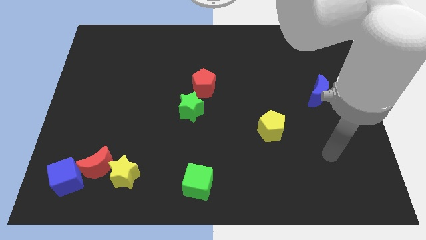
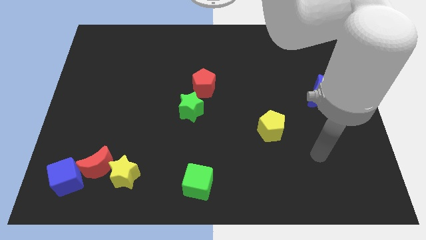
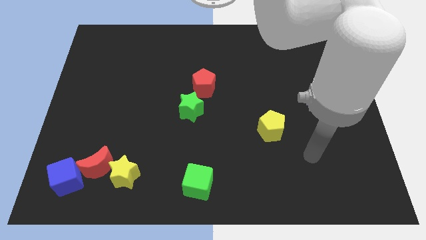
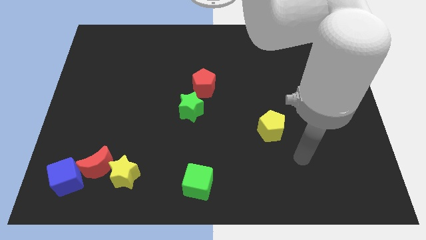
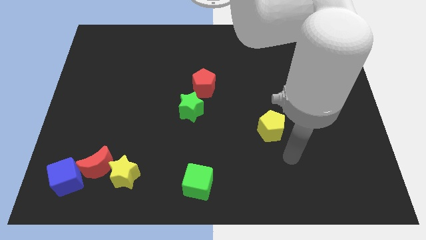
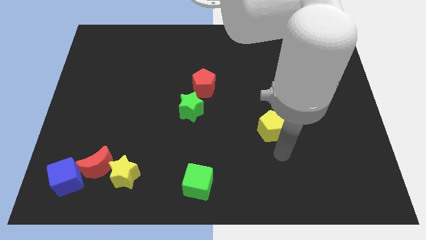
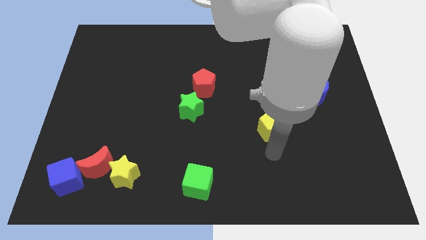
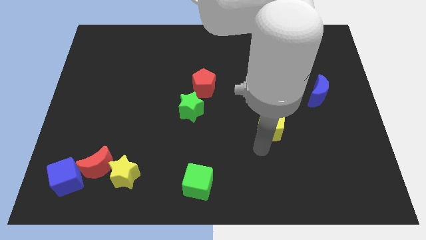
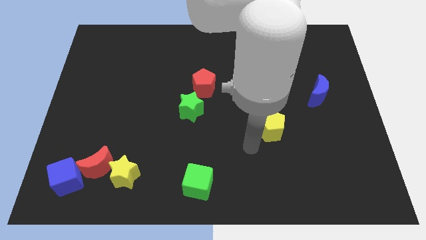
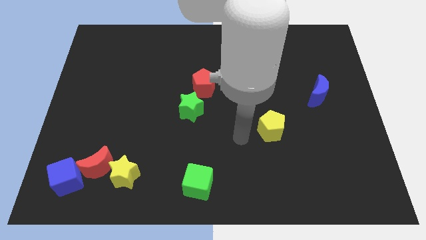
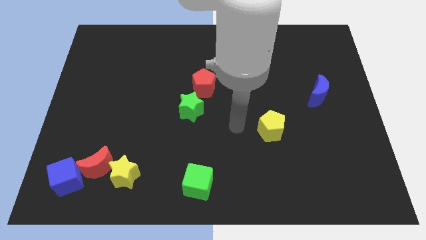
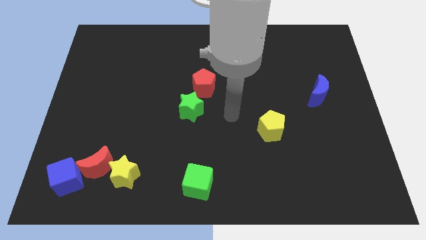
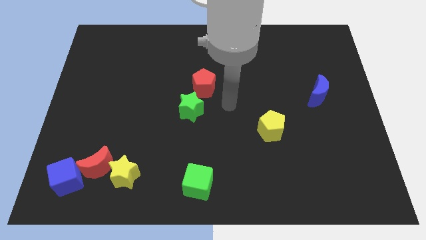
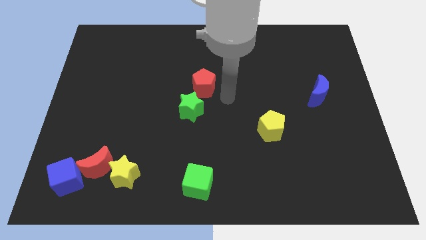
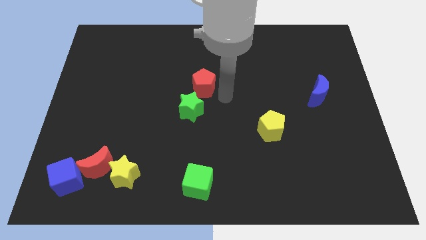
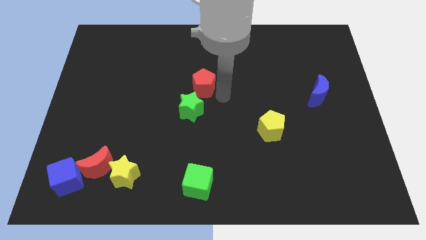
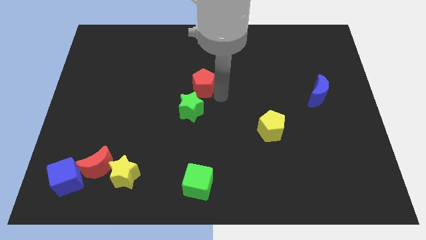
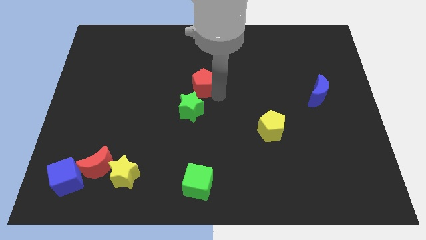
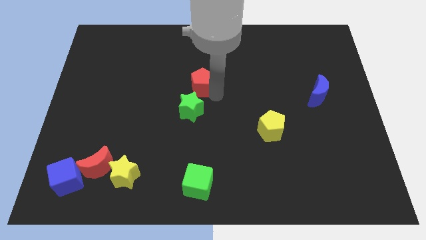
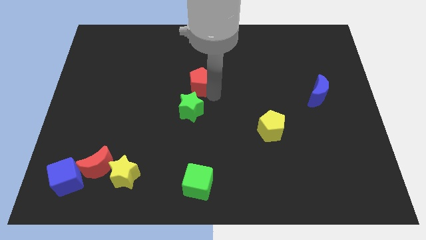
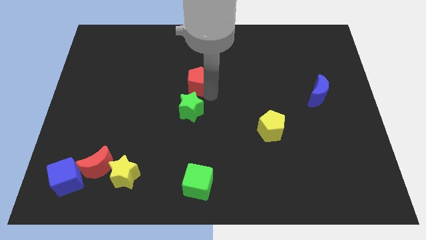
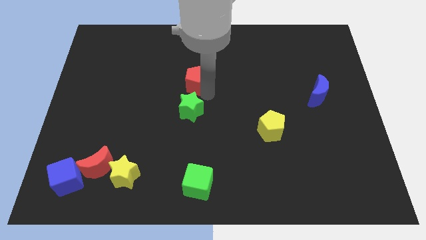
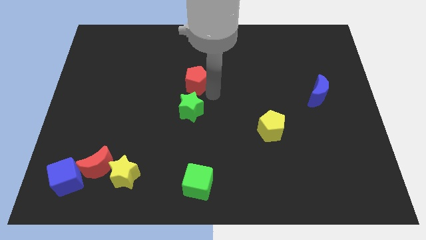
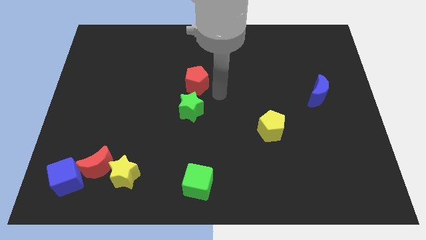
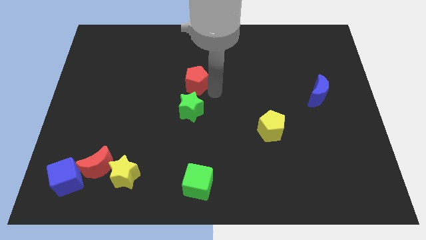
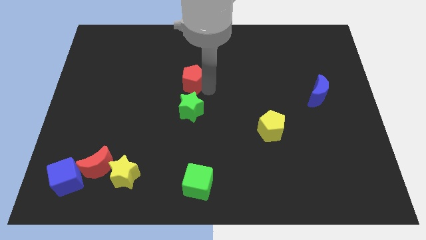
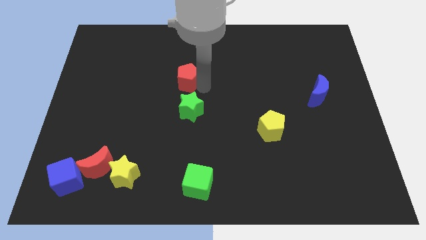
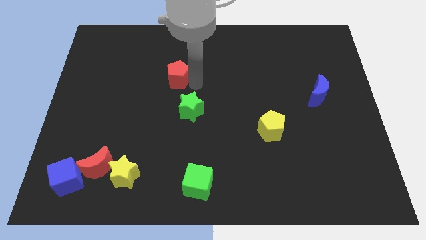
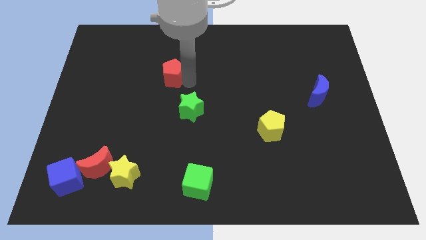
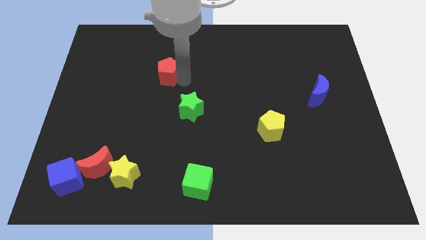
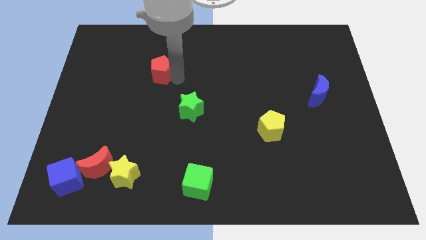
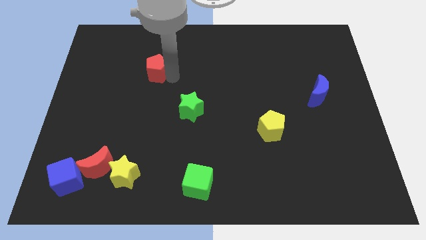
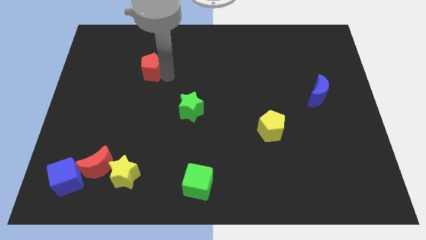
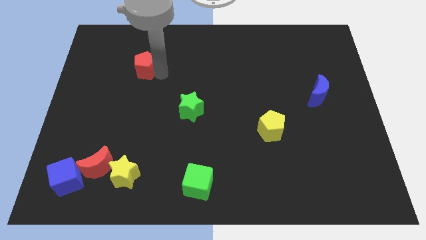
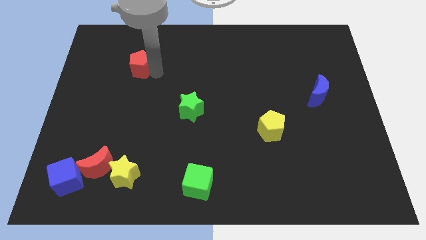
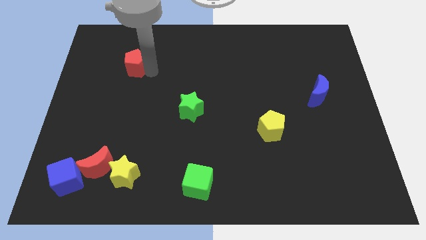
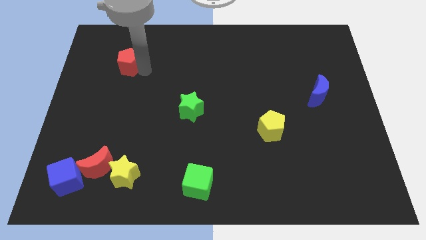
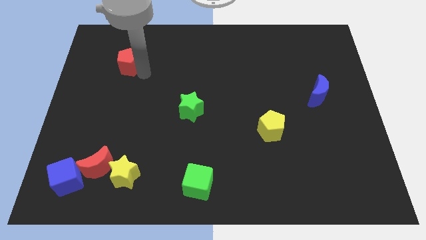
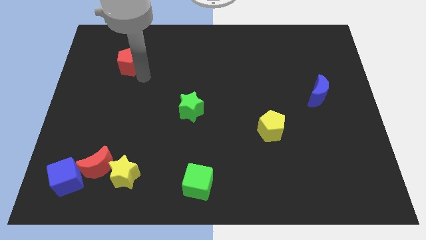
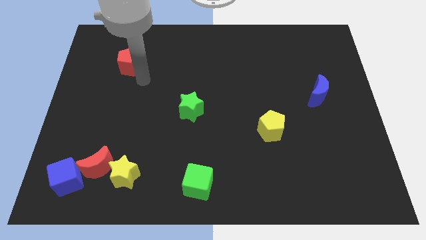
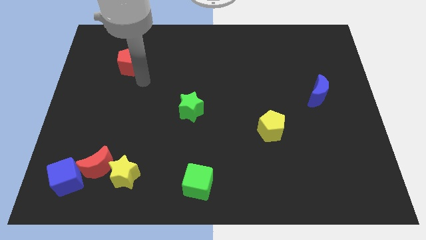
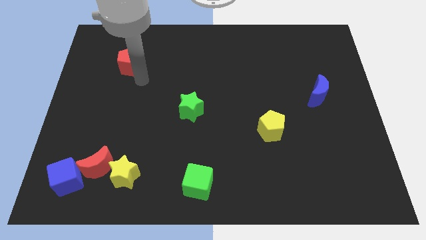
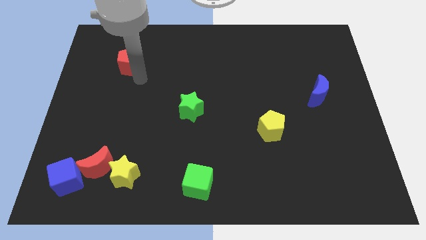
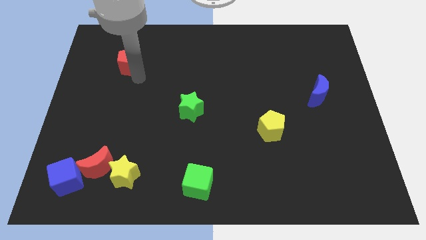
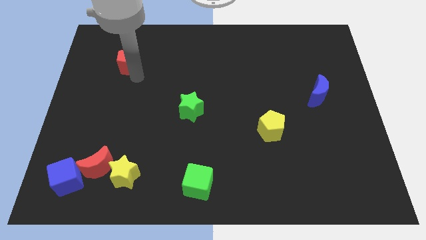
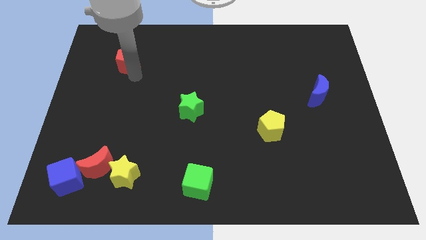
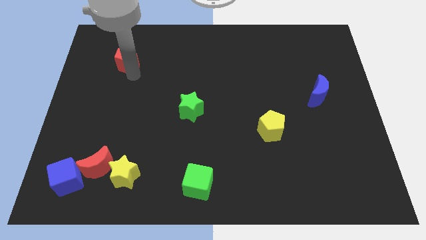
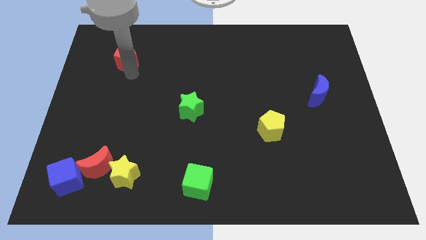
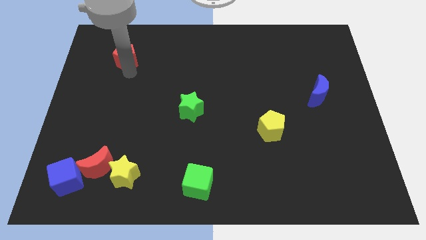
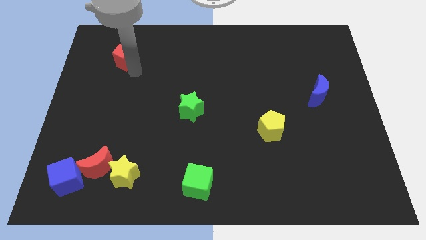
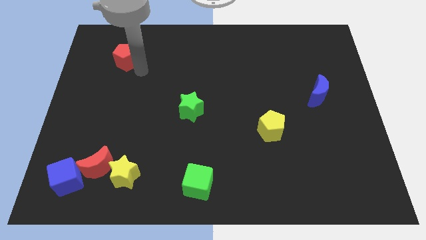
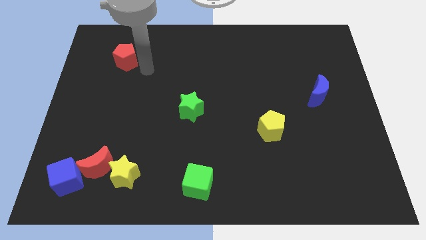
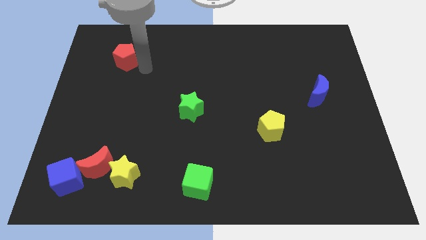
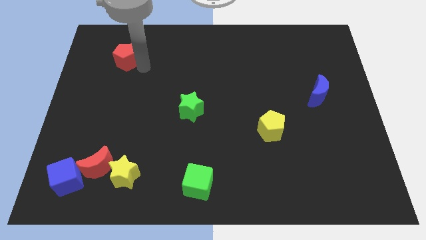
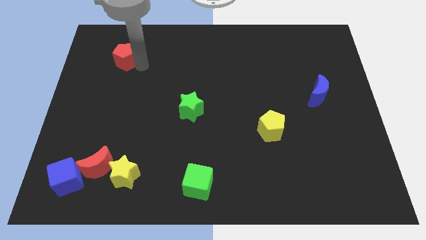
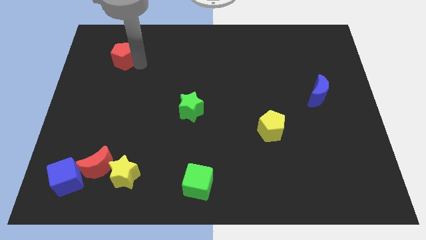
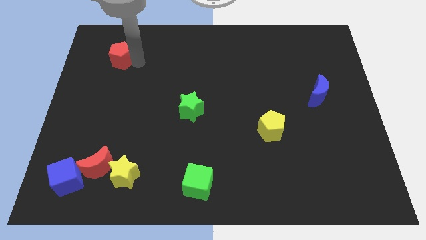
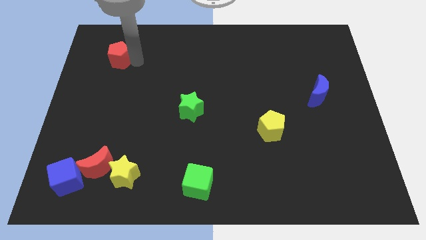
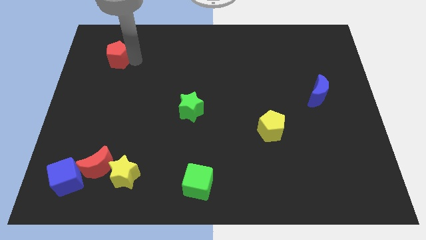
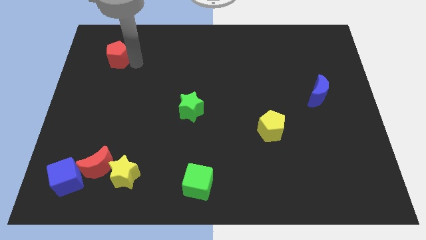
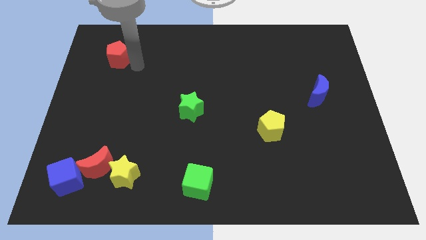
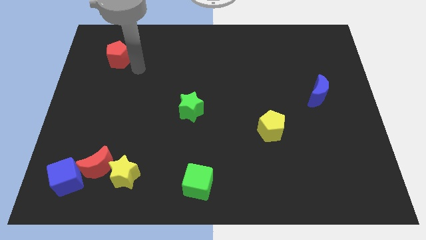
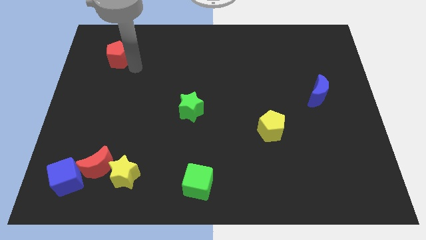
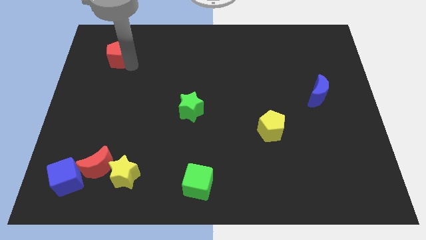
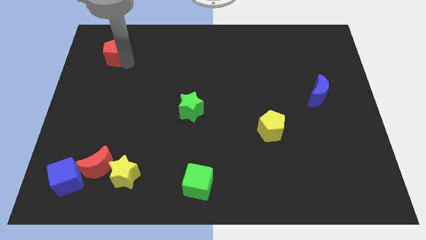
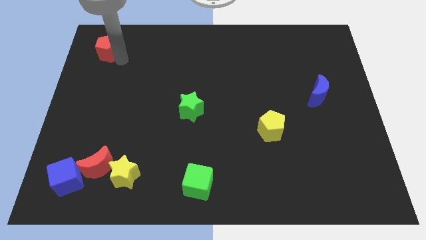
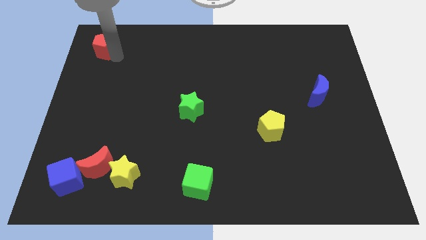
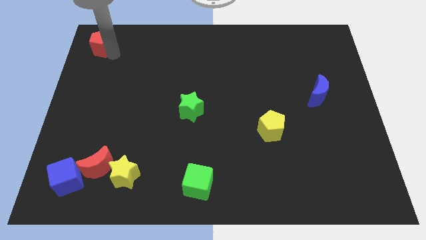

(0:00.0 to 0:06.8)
move the red pentagon to the upper left corner
